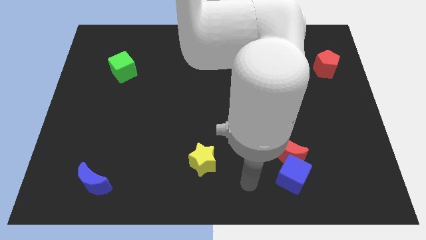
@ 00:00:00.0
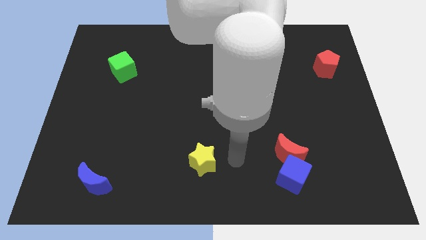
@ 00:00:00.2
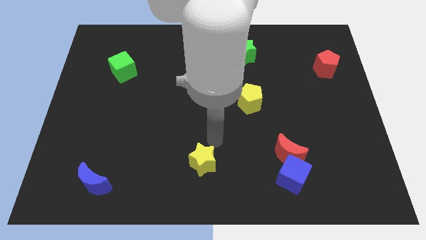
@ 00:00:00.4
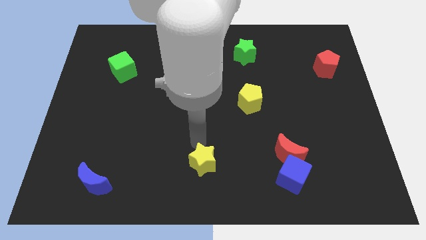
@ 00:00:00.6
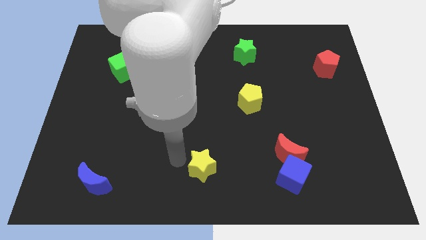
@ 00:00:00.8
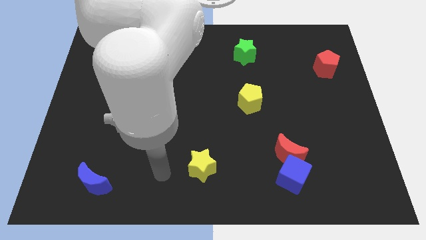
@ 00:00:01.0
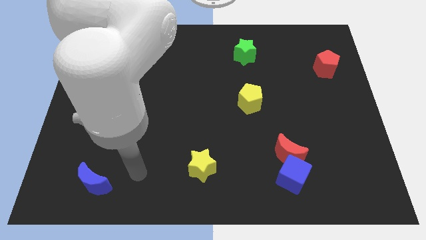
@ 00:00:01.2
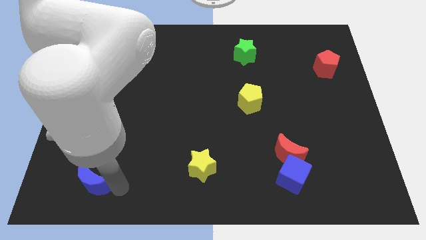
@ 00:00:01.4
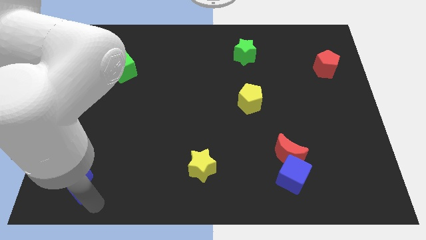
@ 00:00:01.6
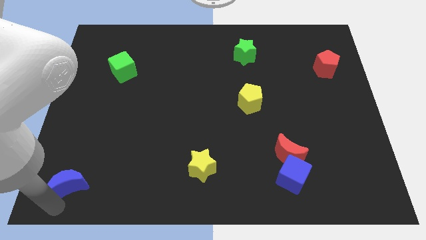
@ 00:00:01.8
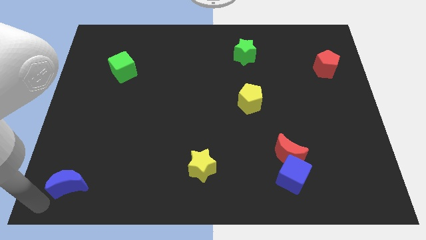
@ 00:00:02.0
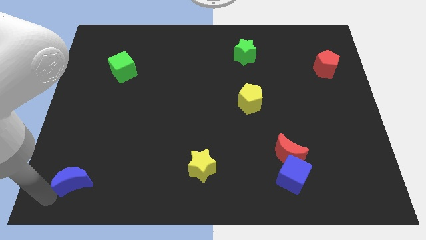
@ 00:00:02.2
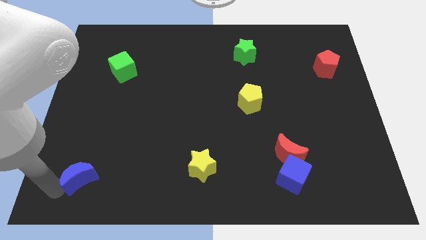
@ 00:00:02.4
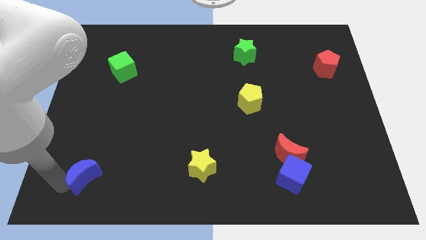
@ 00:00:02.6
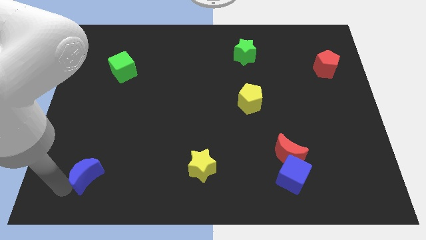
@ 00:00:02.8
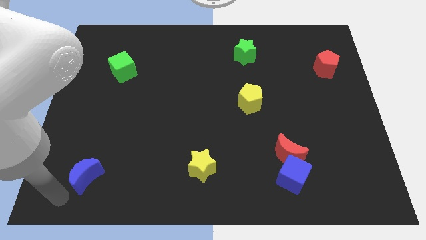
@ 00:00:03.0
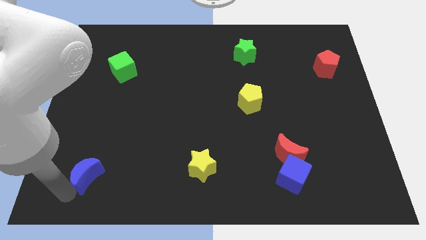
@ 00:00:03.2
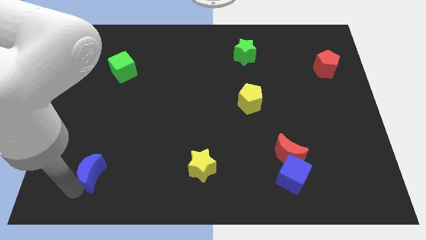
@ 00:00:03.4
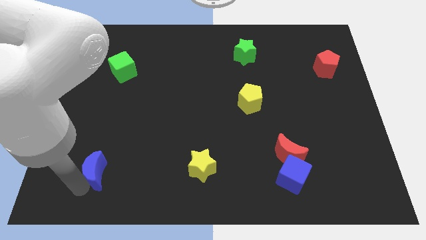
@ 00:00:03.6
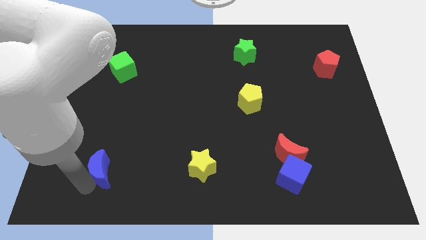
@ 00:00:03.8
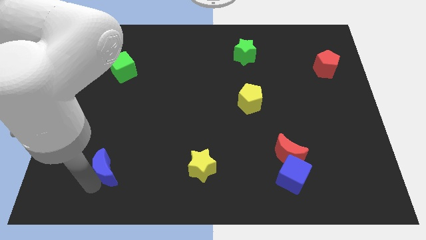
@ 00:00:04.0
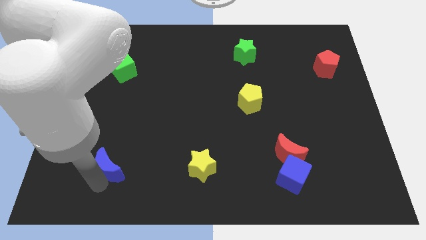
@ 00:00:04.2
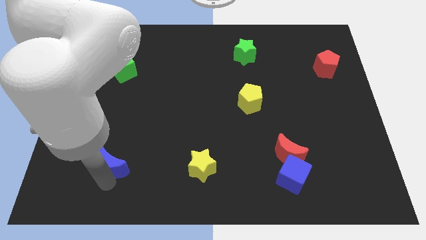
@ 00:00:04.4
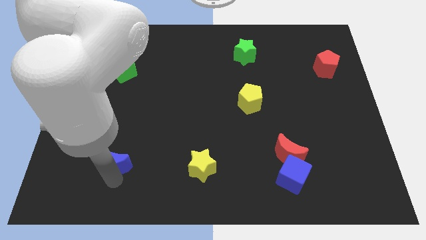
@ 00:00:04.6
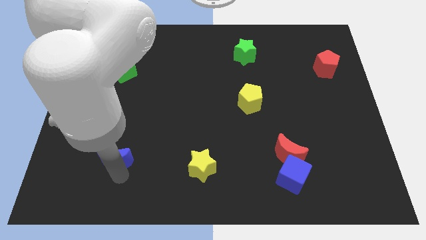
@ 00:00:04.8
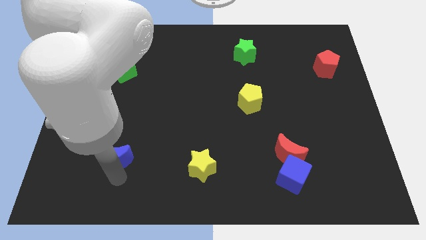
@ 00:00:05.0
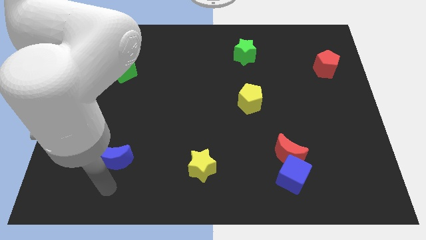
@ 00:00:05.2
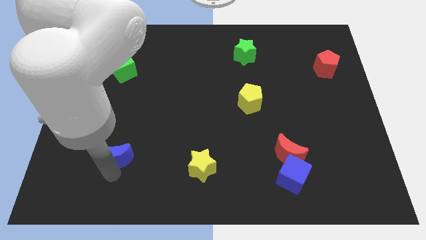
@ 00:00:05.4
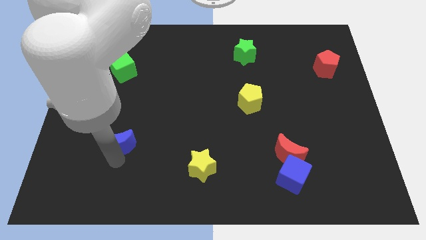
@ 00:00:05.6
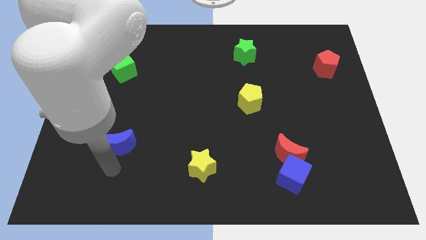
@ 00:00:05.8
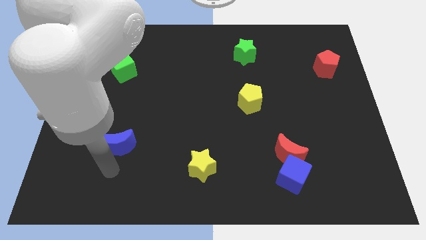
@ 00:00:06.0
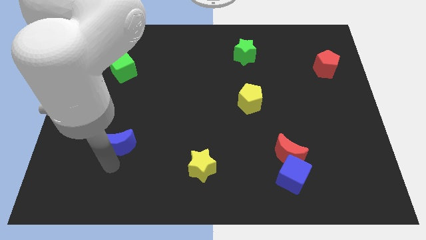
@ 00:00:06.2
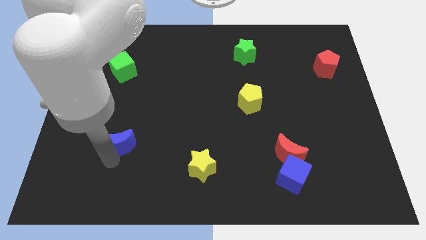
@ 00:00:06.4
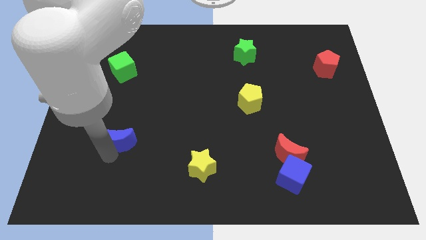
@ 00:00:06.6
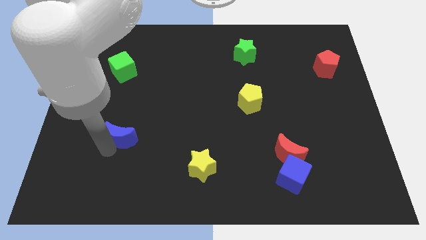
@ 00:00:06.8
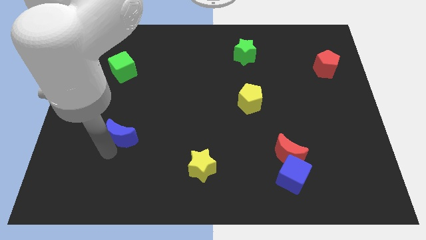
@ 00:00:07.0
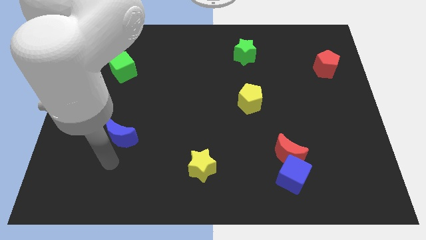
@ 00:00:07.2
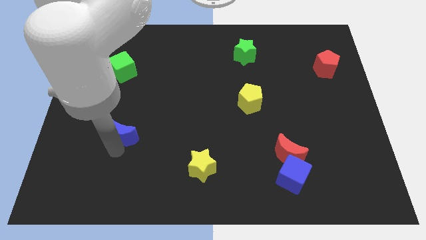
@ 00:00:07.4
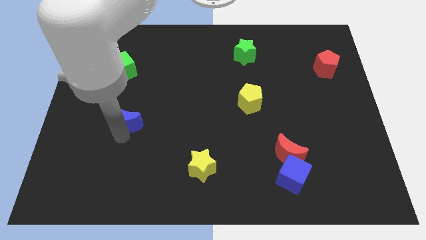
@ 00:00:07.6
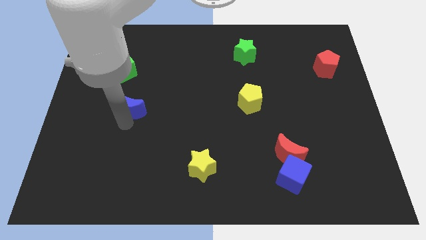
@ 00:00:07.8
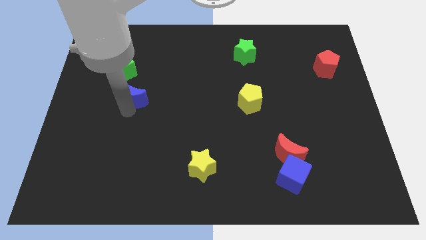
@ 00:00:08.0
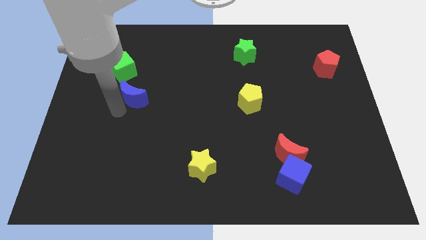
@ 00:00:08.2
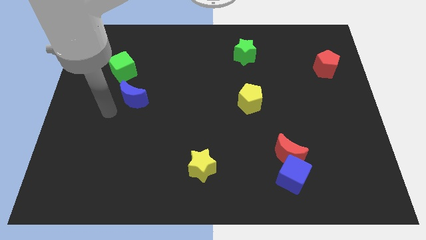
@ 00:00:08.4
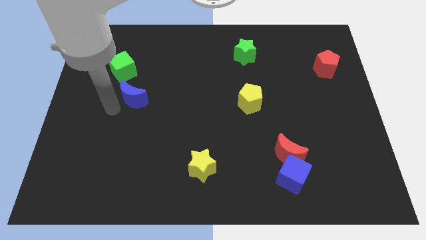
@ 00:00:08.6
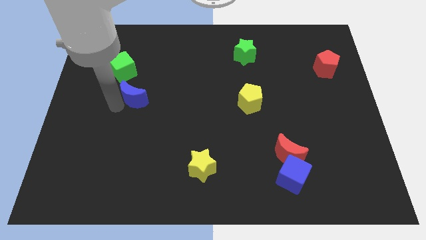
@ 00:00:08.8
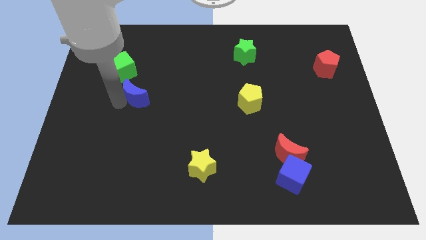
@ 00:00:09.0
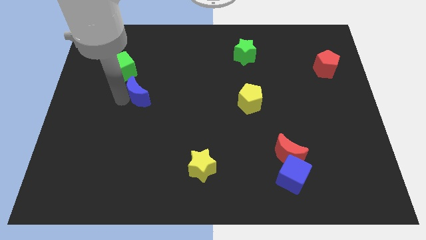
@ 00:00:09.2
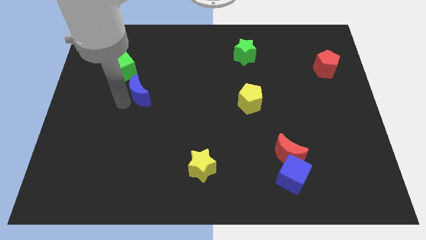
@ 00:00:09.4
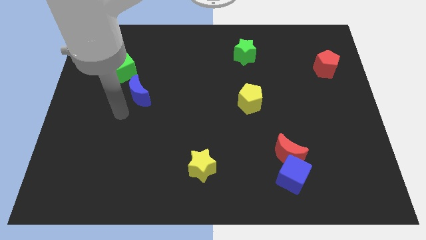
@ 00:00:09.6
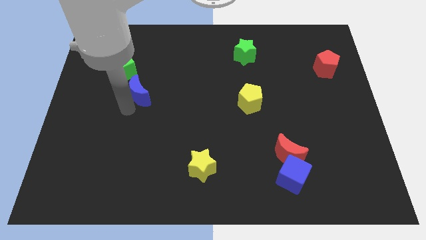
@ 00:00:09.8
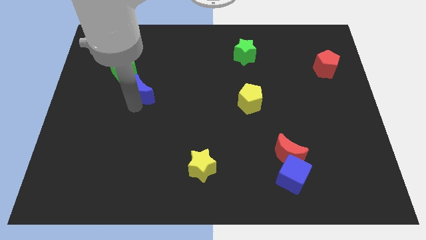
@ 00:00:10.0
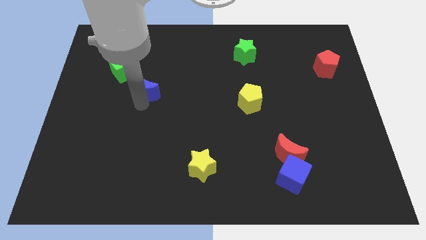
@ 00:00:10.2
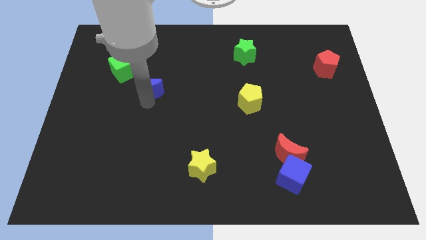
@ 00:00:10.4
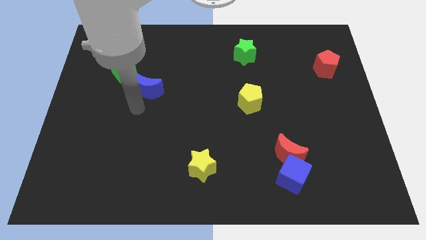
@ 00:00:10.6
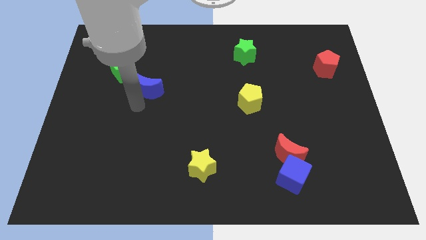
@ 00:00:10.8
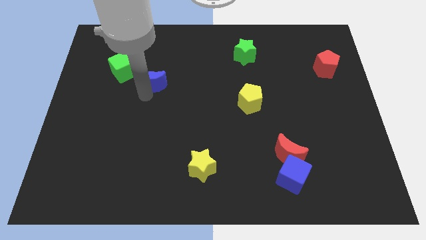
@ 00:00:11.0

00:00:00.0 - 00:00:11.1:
put the blue moon right of the green cube

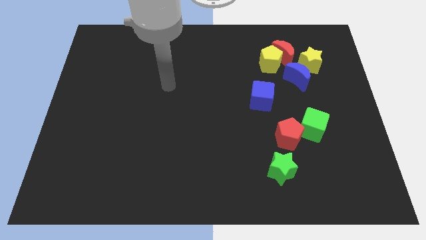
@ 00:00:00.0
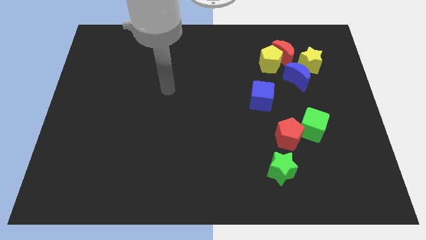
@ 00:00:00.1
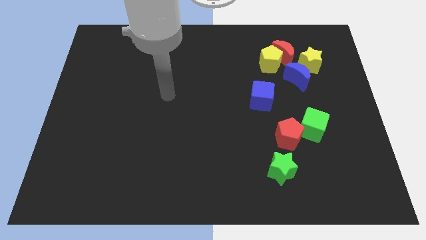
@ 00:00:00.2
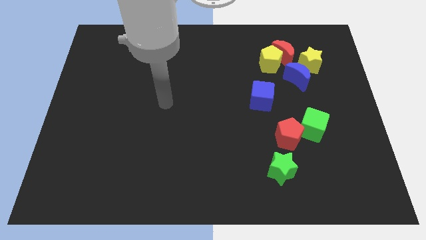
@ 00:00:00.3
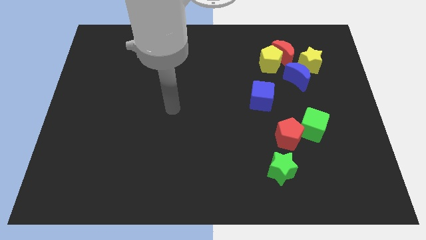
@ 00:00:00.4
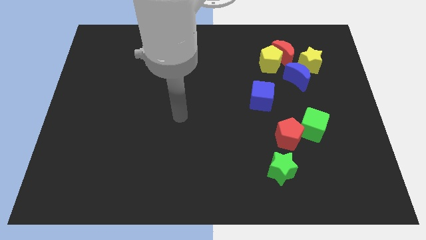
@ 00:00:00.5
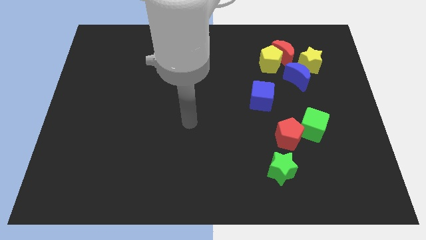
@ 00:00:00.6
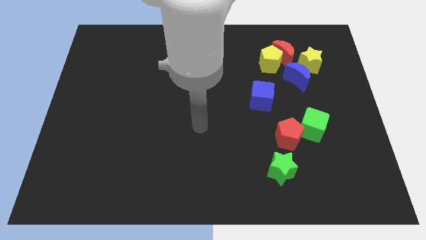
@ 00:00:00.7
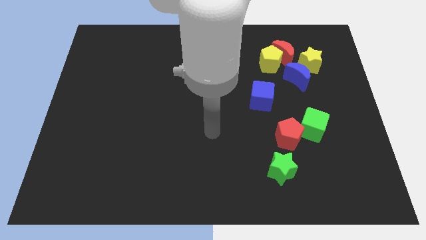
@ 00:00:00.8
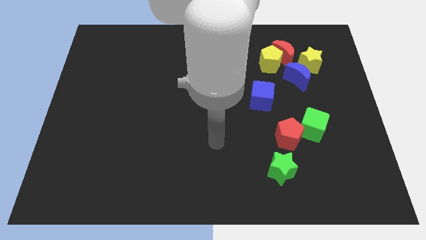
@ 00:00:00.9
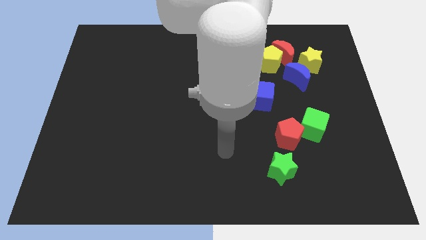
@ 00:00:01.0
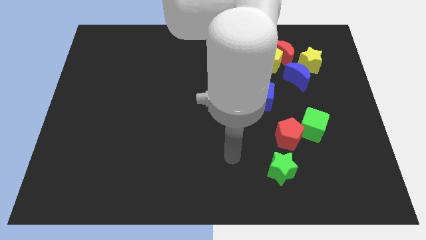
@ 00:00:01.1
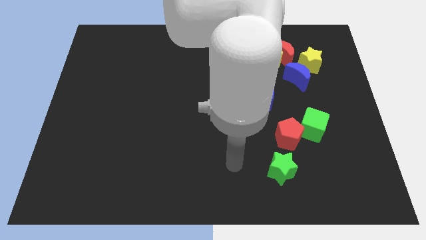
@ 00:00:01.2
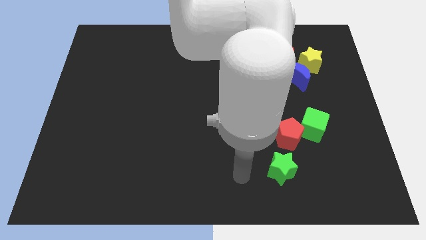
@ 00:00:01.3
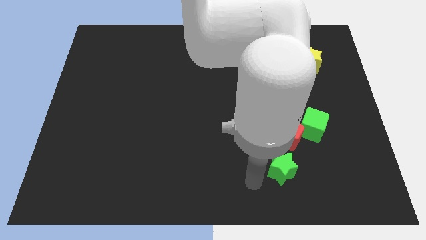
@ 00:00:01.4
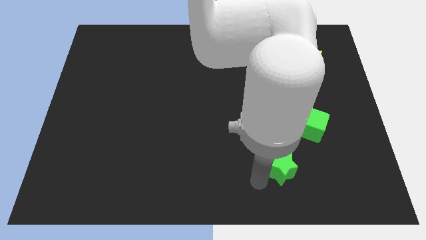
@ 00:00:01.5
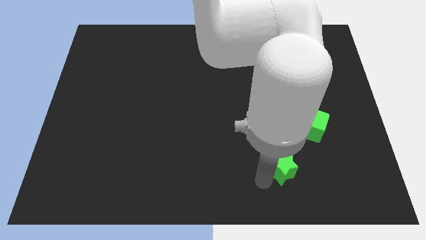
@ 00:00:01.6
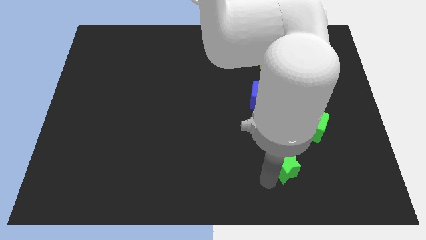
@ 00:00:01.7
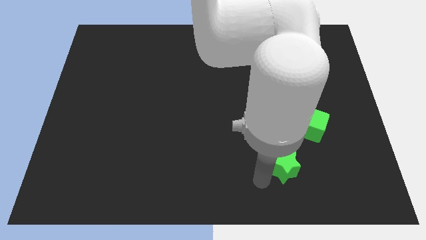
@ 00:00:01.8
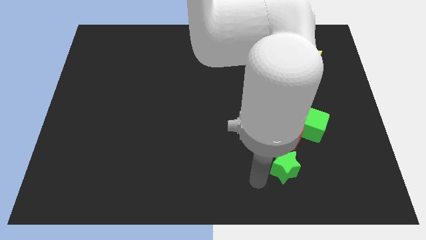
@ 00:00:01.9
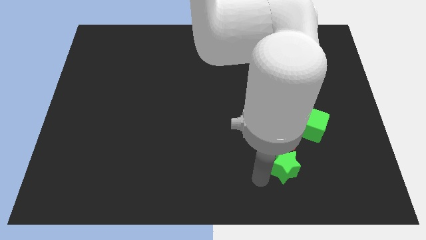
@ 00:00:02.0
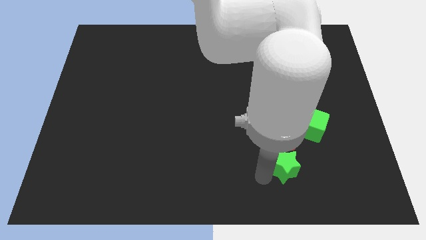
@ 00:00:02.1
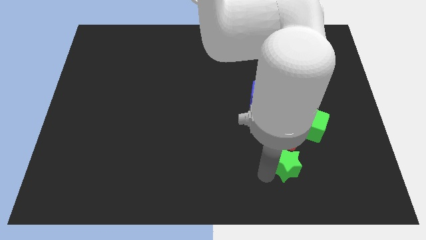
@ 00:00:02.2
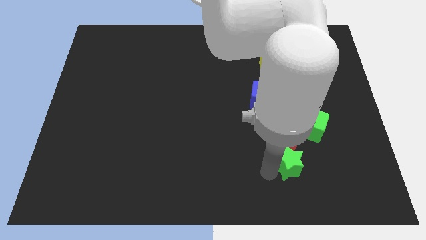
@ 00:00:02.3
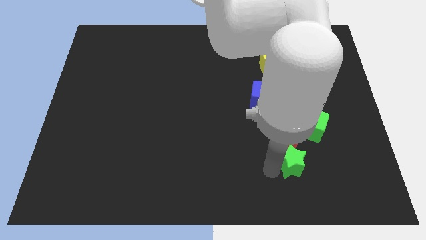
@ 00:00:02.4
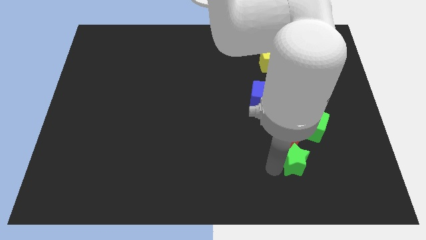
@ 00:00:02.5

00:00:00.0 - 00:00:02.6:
push the green star diagonally down and to the right of the red pentagon
